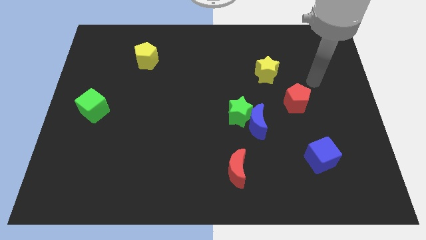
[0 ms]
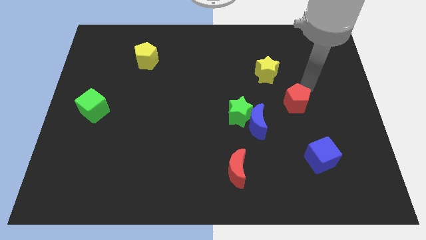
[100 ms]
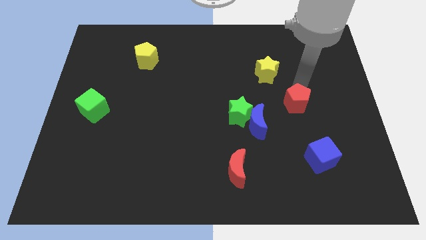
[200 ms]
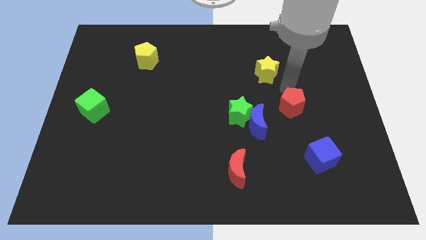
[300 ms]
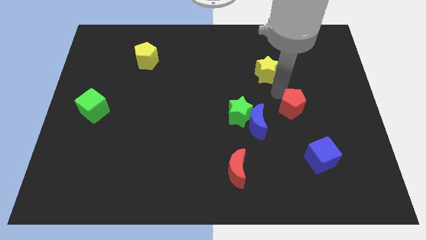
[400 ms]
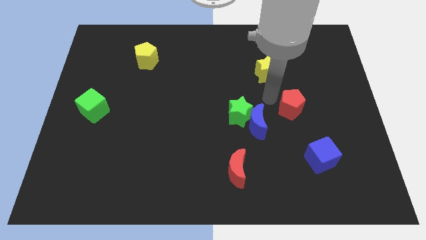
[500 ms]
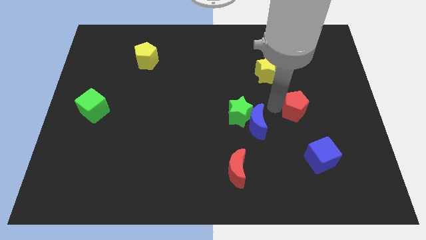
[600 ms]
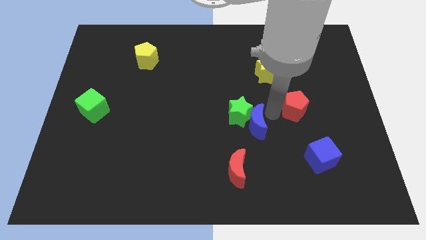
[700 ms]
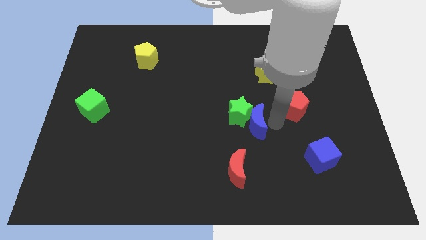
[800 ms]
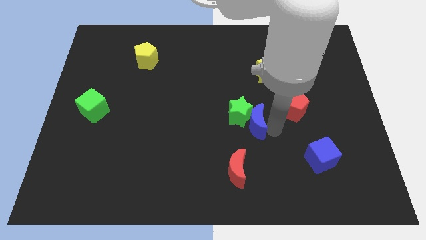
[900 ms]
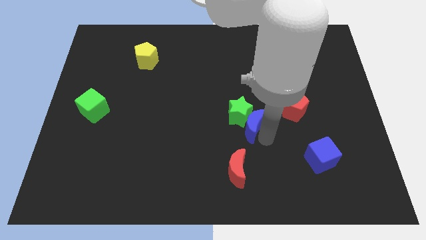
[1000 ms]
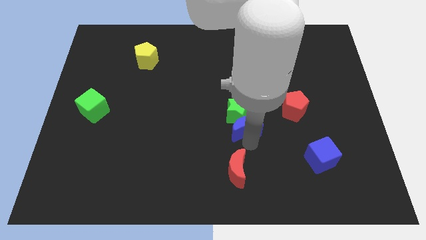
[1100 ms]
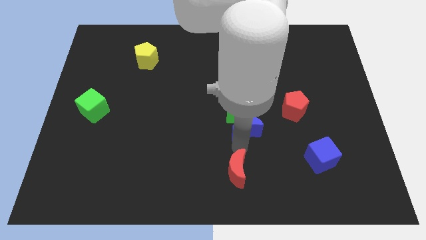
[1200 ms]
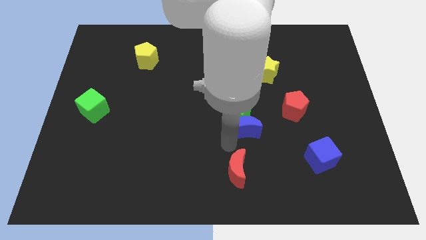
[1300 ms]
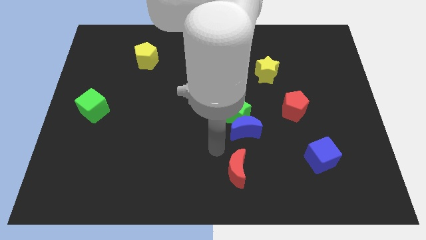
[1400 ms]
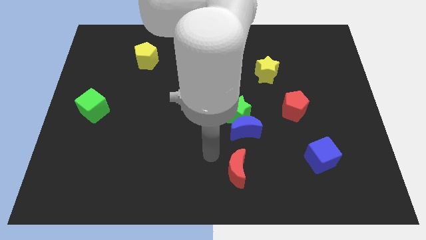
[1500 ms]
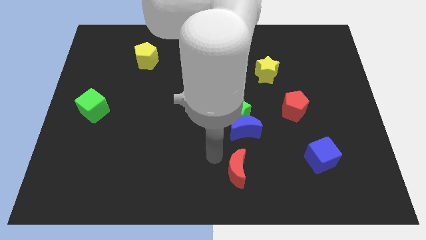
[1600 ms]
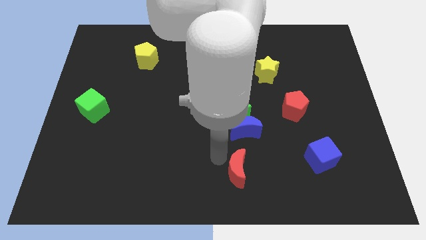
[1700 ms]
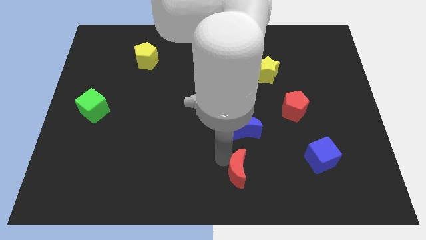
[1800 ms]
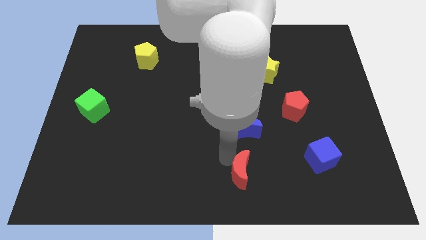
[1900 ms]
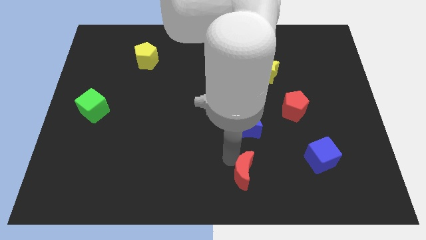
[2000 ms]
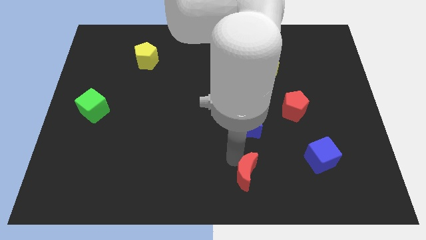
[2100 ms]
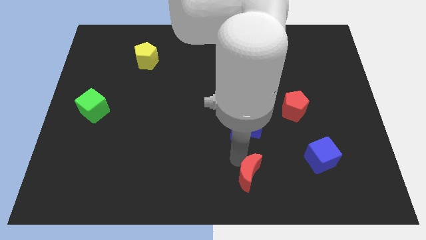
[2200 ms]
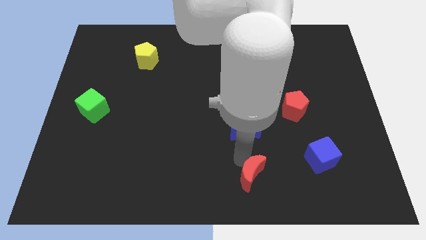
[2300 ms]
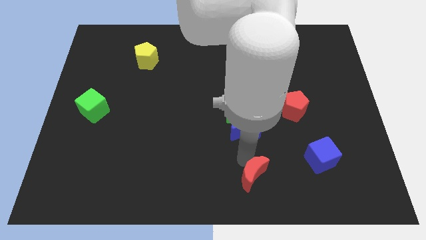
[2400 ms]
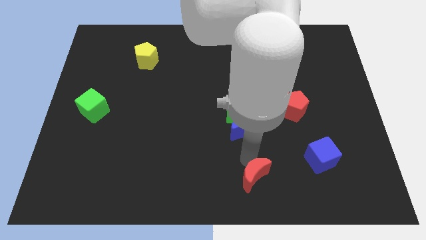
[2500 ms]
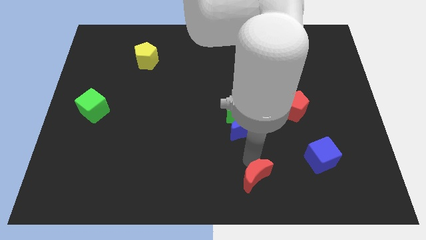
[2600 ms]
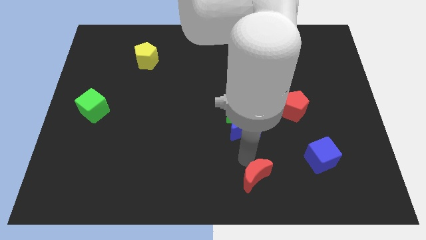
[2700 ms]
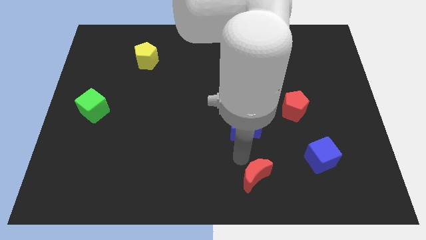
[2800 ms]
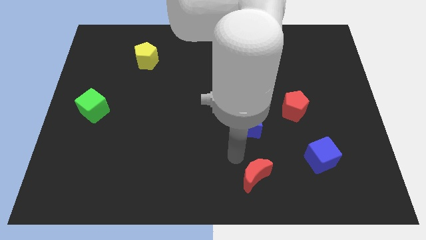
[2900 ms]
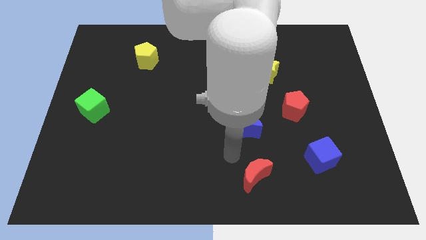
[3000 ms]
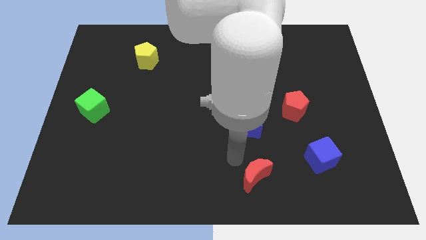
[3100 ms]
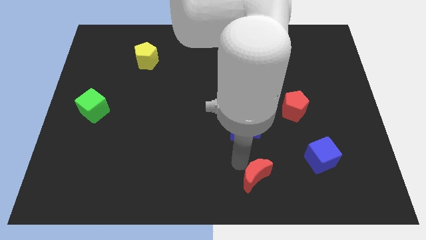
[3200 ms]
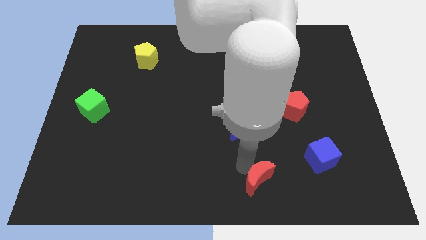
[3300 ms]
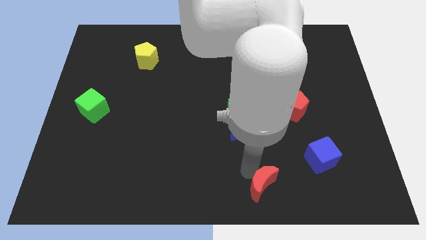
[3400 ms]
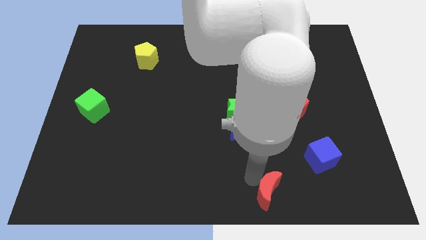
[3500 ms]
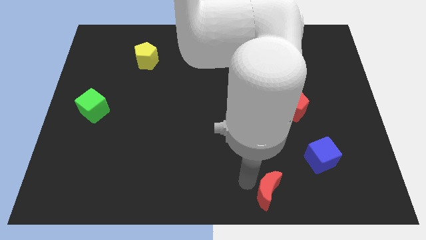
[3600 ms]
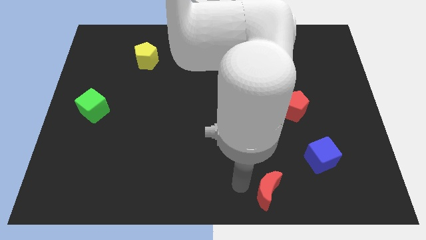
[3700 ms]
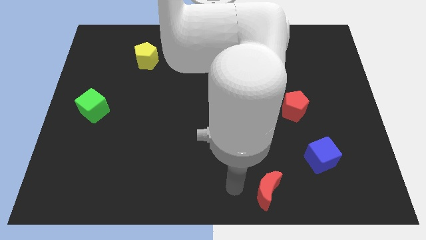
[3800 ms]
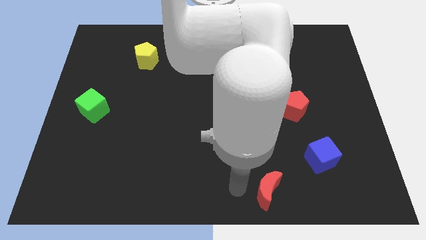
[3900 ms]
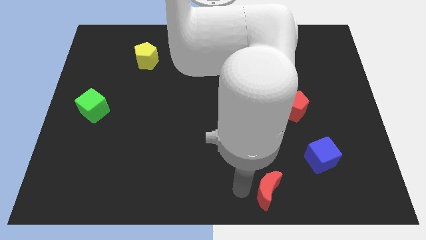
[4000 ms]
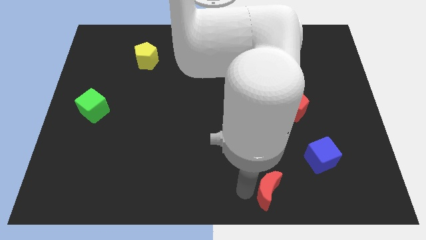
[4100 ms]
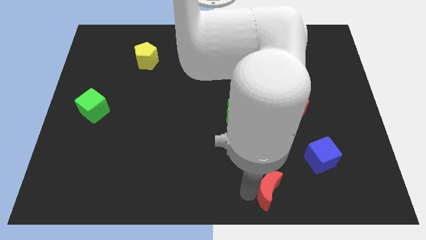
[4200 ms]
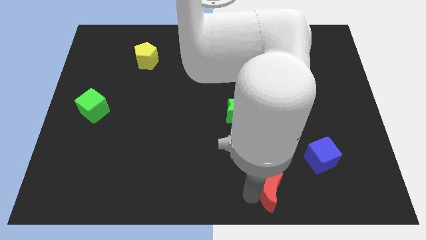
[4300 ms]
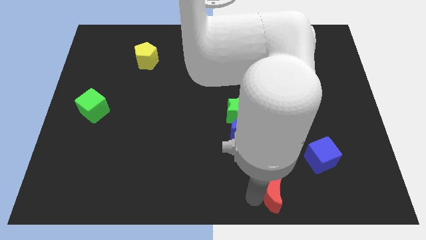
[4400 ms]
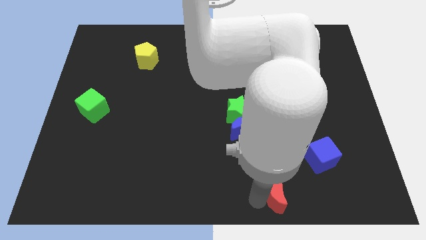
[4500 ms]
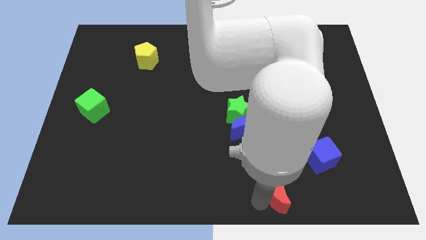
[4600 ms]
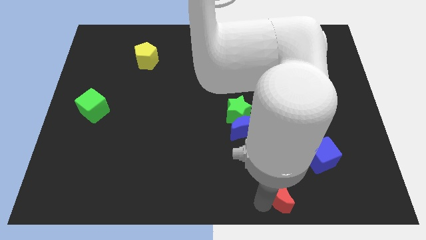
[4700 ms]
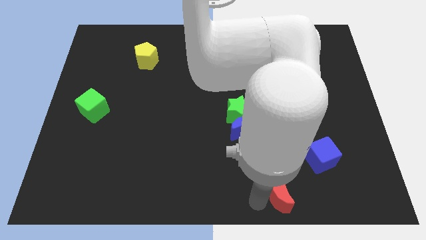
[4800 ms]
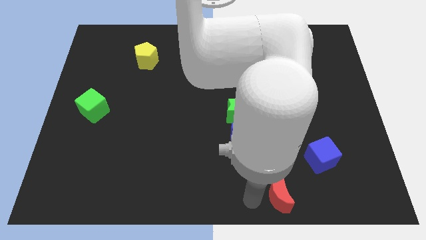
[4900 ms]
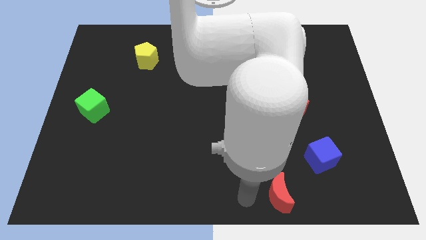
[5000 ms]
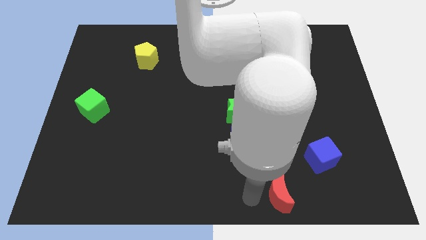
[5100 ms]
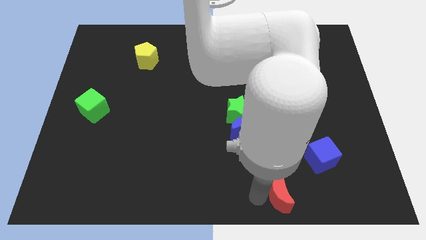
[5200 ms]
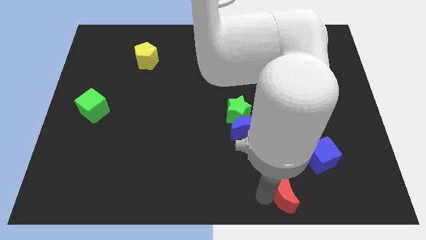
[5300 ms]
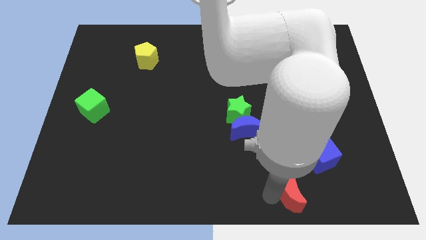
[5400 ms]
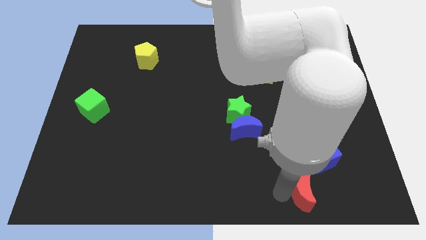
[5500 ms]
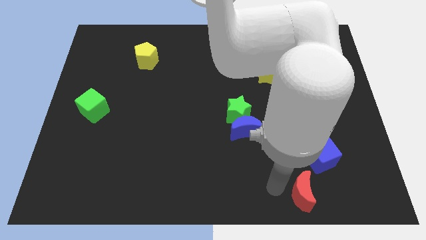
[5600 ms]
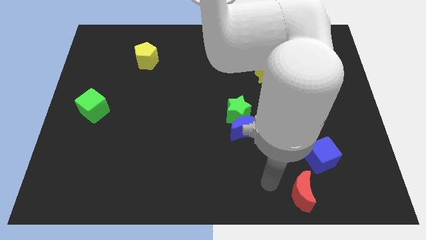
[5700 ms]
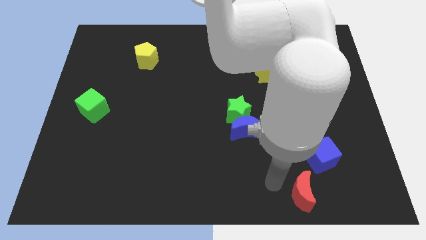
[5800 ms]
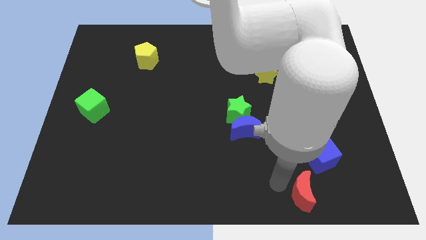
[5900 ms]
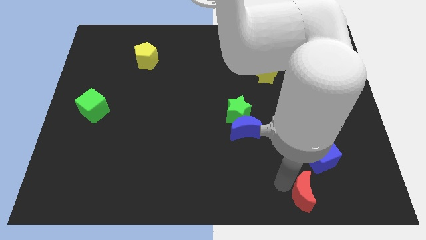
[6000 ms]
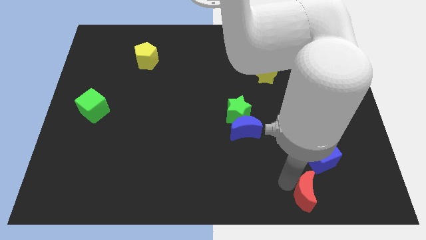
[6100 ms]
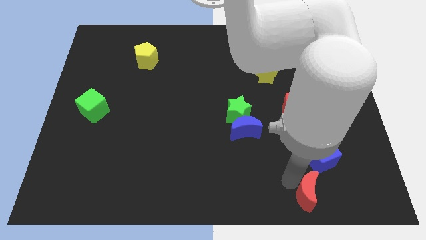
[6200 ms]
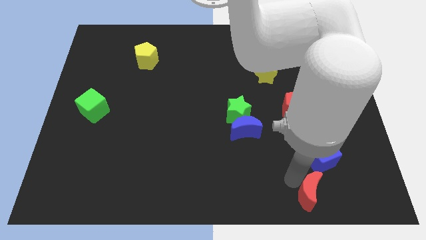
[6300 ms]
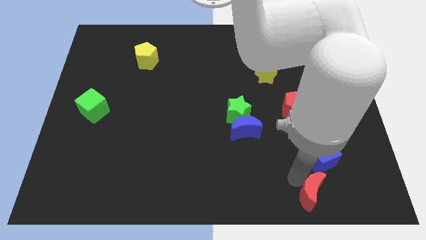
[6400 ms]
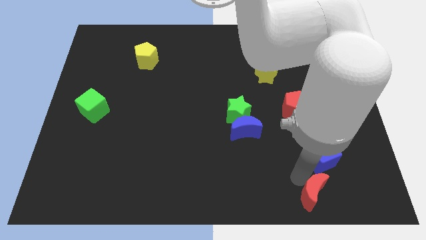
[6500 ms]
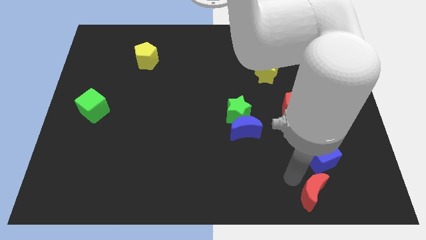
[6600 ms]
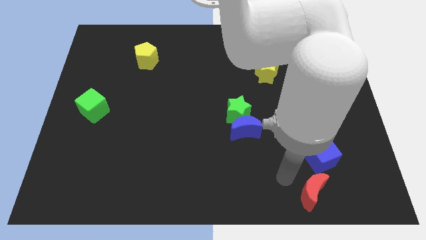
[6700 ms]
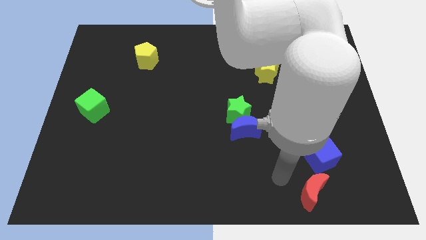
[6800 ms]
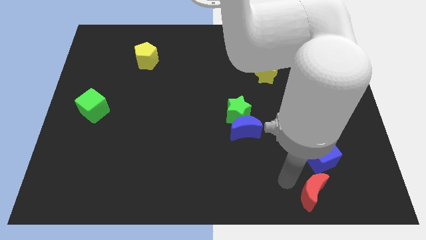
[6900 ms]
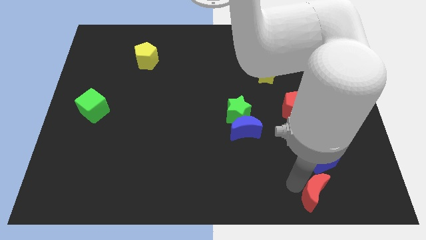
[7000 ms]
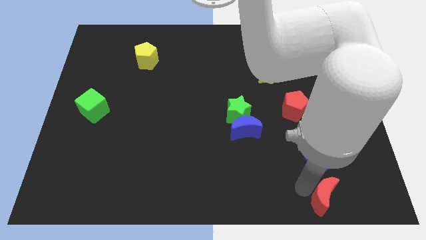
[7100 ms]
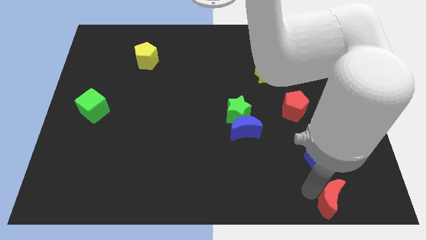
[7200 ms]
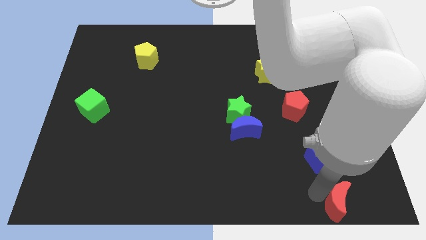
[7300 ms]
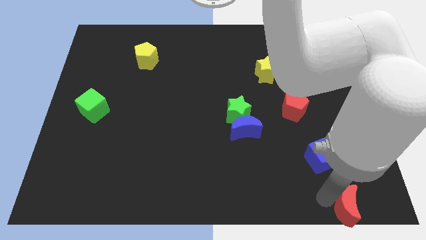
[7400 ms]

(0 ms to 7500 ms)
slide the red moon to the bottom right corner
